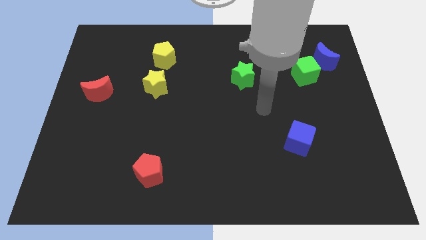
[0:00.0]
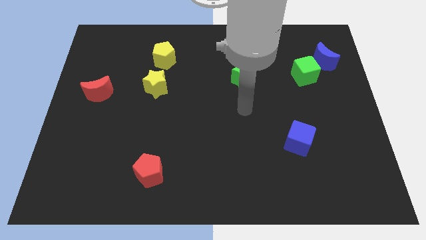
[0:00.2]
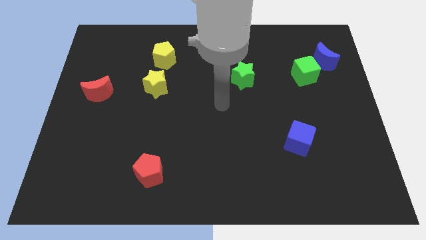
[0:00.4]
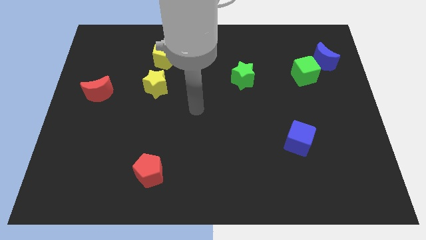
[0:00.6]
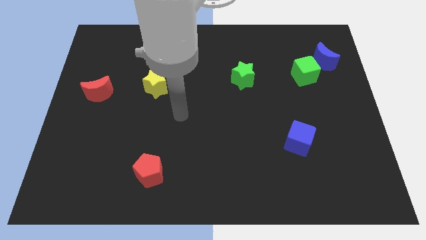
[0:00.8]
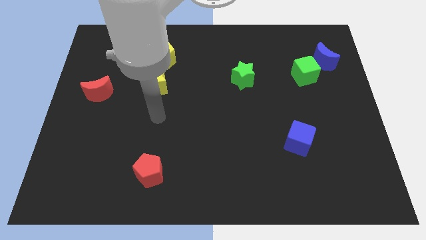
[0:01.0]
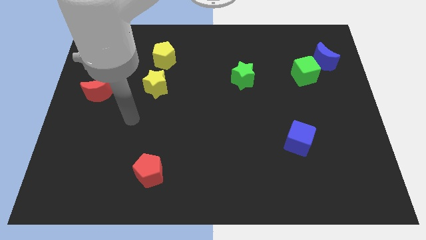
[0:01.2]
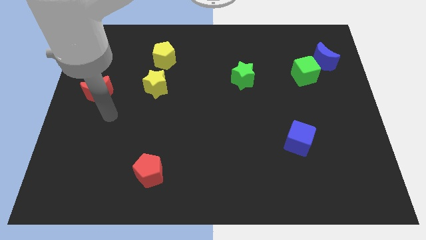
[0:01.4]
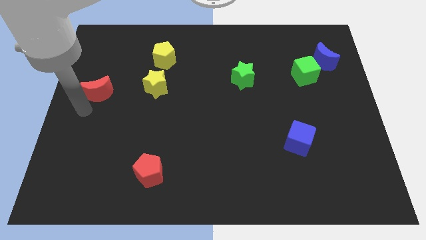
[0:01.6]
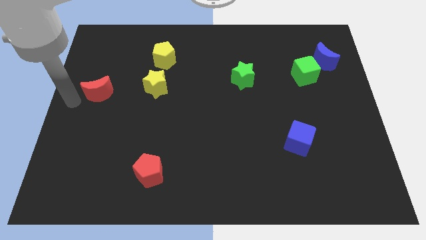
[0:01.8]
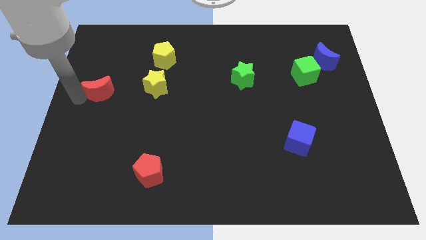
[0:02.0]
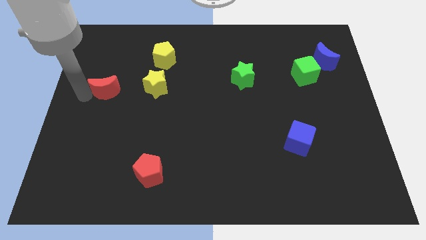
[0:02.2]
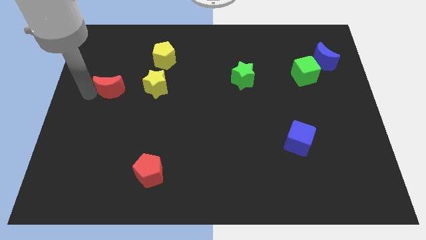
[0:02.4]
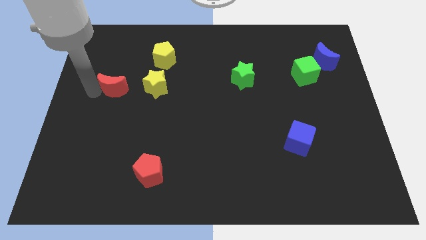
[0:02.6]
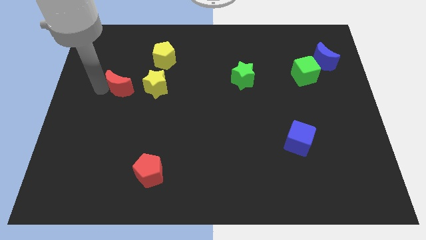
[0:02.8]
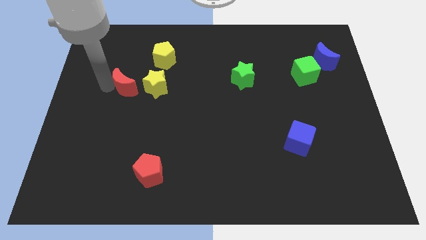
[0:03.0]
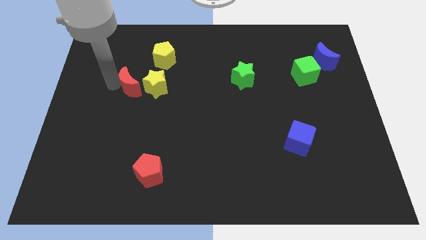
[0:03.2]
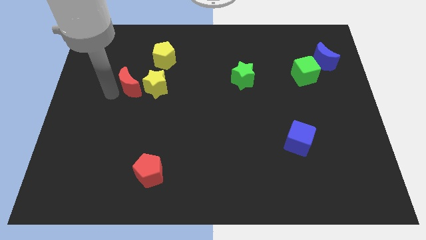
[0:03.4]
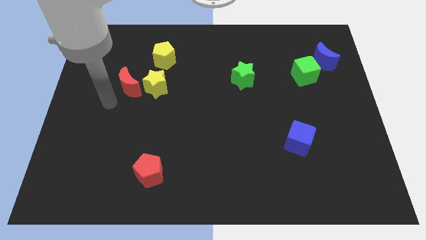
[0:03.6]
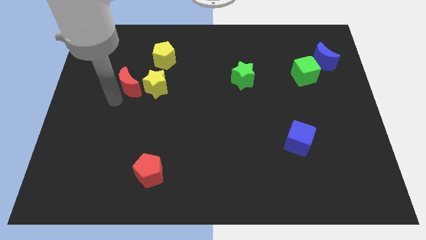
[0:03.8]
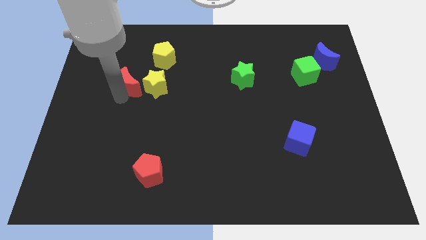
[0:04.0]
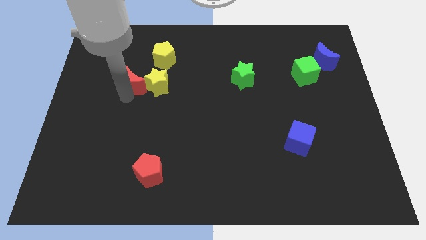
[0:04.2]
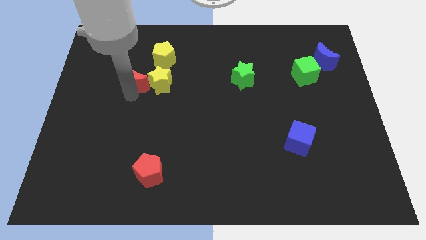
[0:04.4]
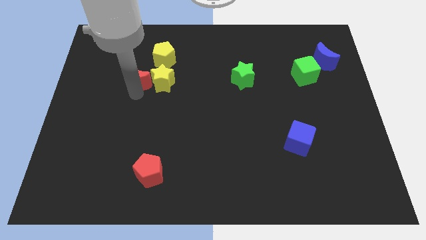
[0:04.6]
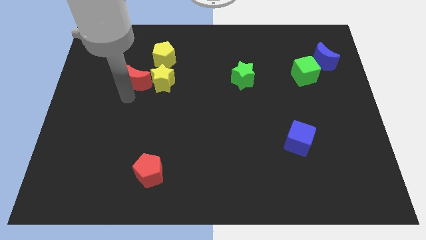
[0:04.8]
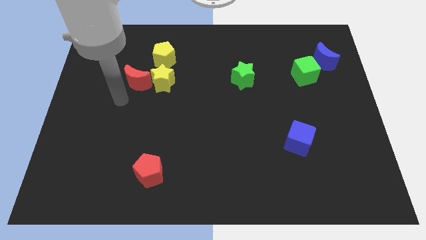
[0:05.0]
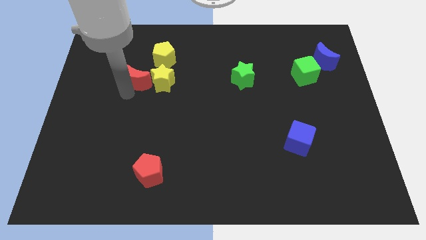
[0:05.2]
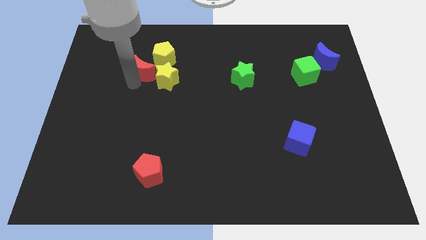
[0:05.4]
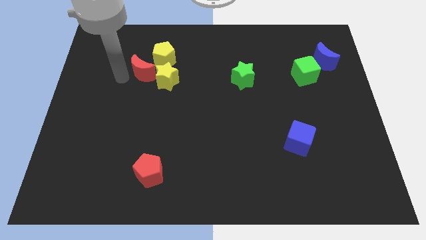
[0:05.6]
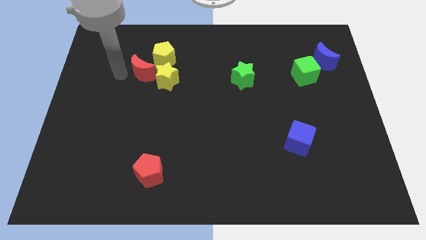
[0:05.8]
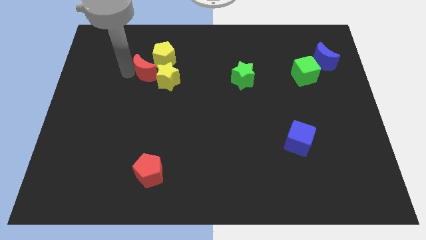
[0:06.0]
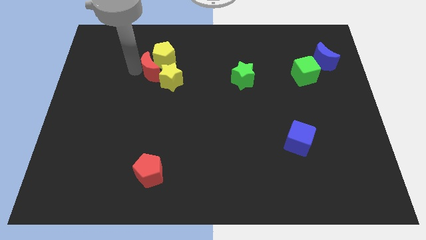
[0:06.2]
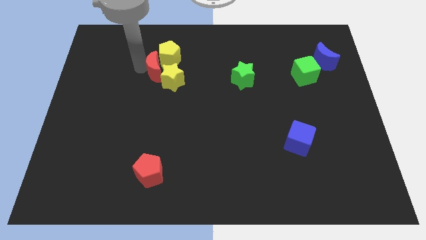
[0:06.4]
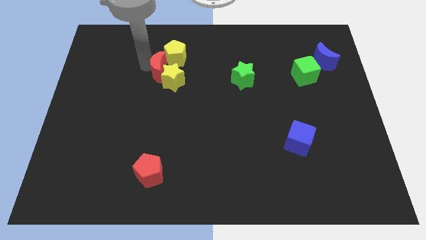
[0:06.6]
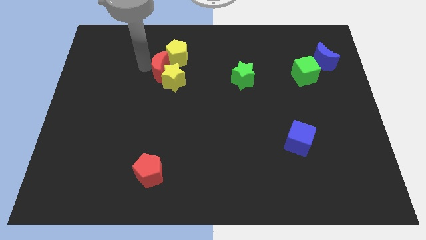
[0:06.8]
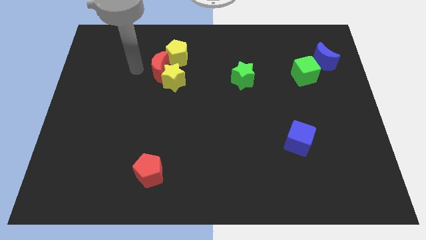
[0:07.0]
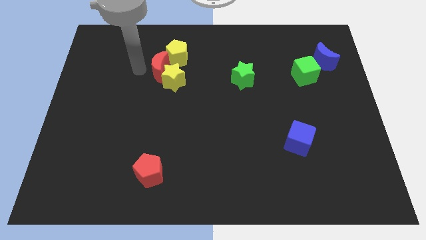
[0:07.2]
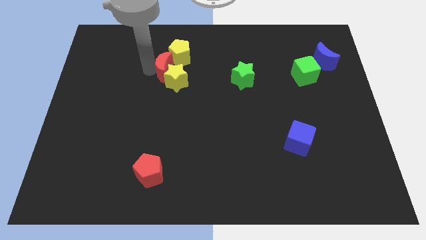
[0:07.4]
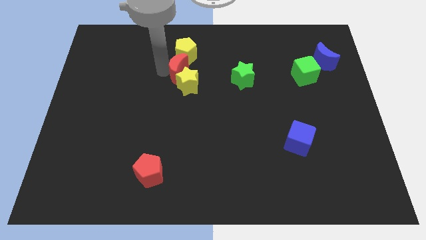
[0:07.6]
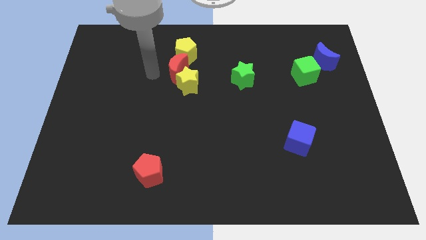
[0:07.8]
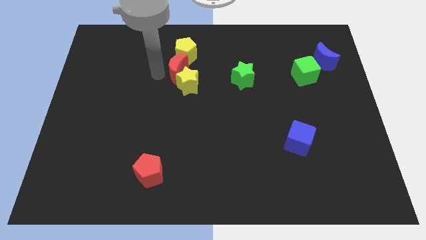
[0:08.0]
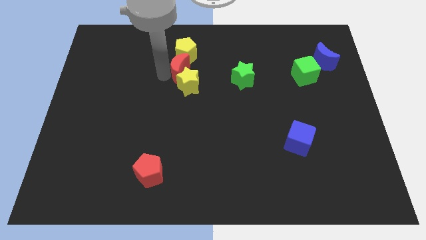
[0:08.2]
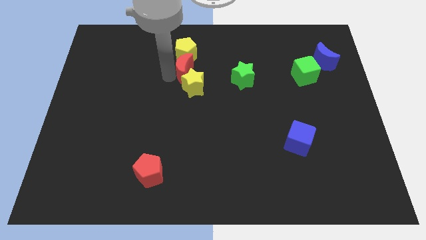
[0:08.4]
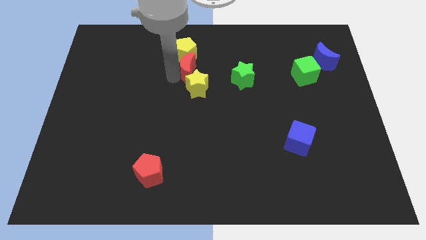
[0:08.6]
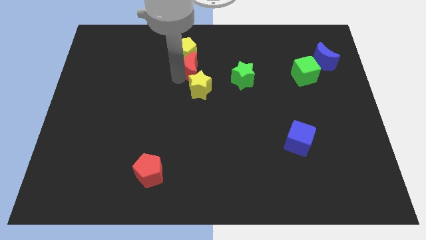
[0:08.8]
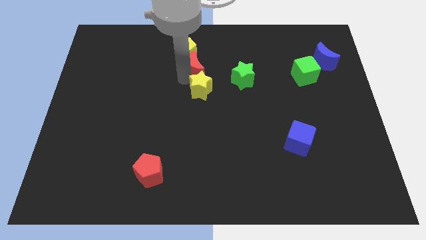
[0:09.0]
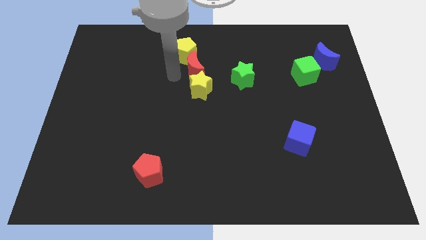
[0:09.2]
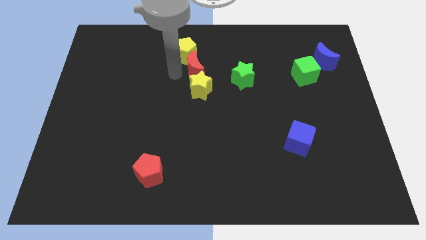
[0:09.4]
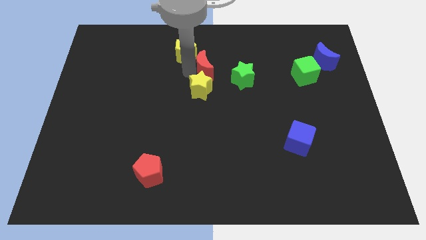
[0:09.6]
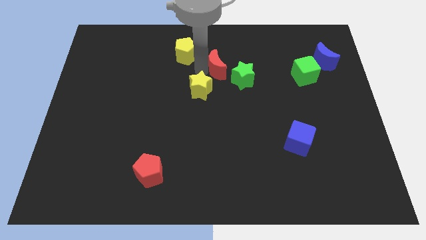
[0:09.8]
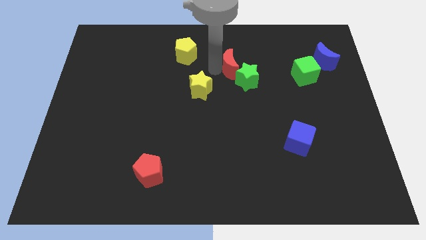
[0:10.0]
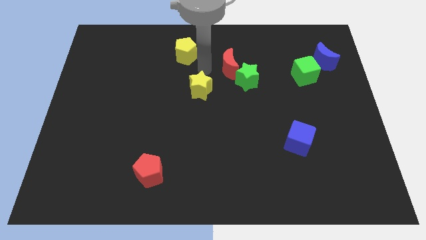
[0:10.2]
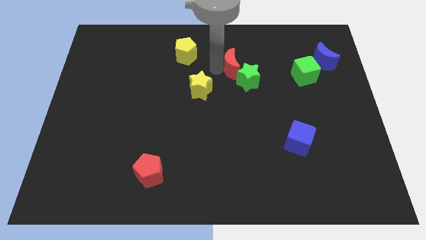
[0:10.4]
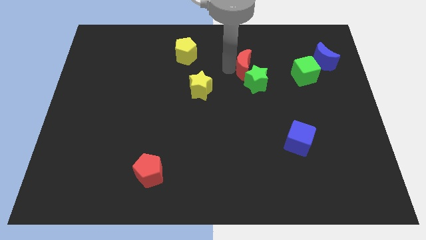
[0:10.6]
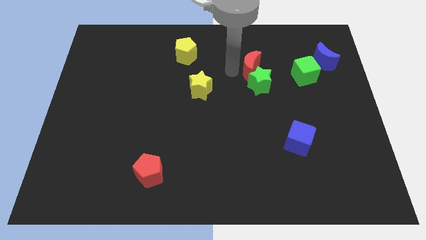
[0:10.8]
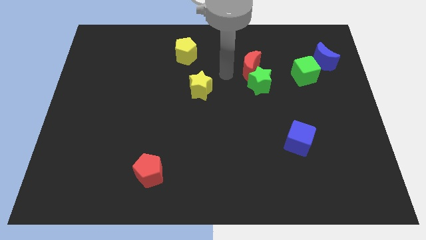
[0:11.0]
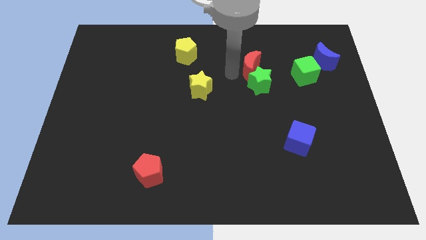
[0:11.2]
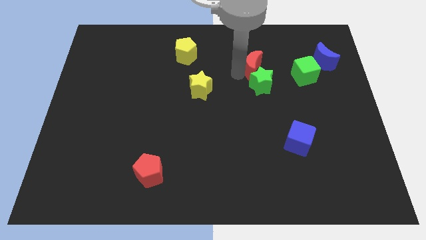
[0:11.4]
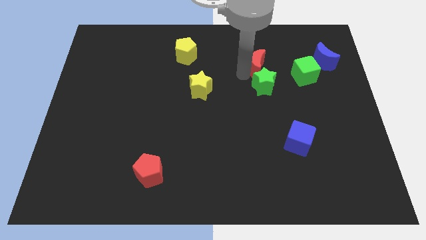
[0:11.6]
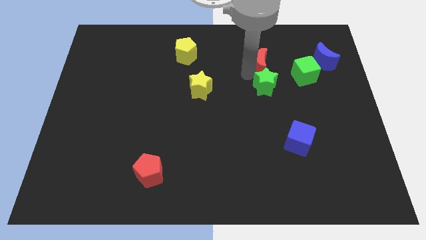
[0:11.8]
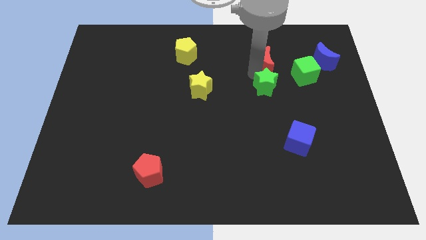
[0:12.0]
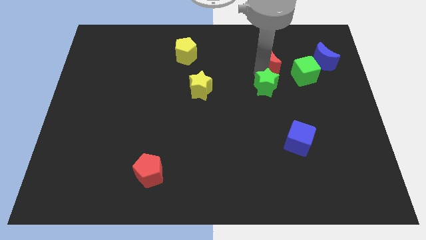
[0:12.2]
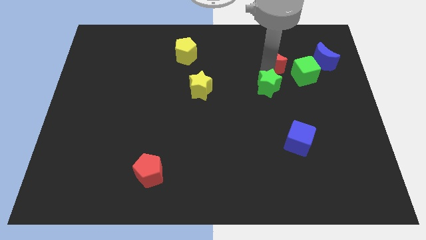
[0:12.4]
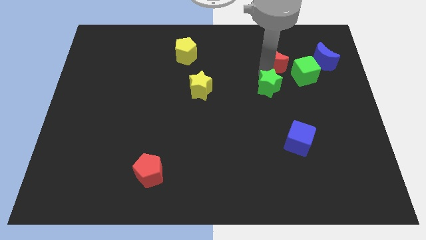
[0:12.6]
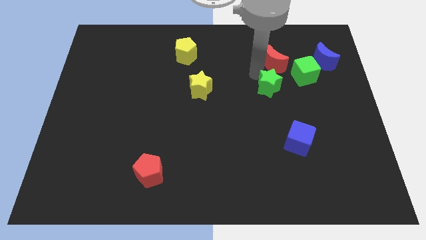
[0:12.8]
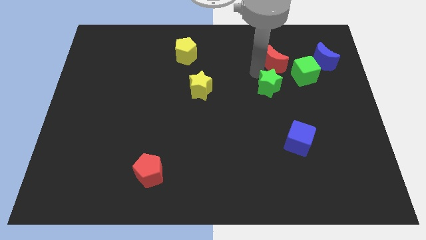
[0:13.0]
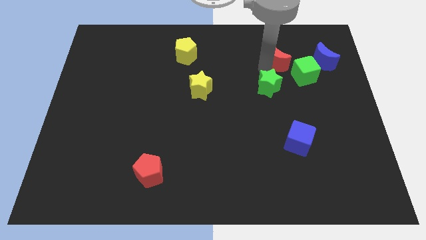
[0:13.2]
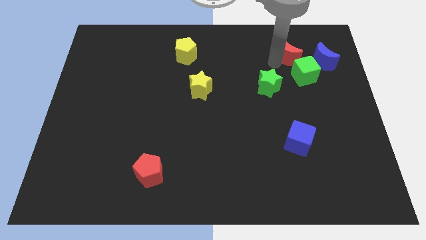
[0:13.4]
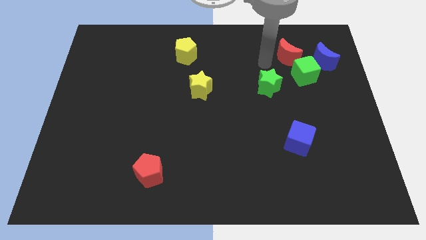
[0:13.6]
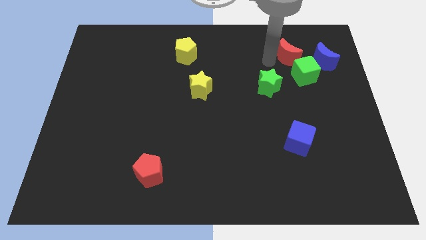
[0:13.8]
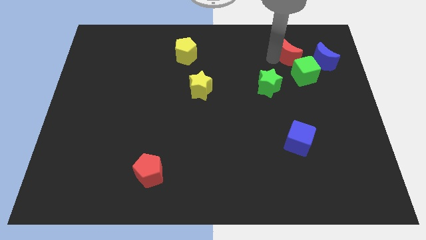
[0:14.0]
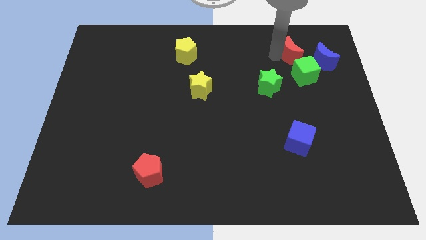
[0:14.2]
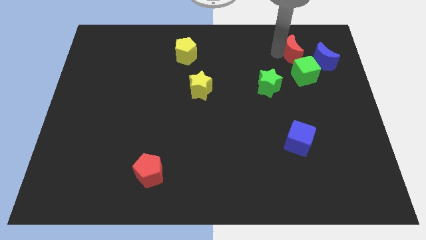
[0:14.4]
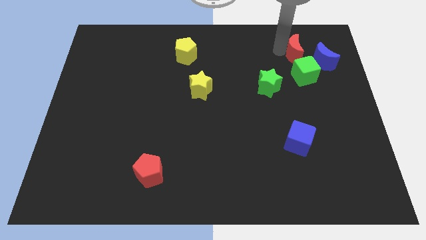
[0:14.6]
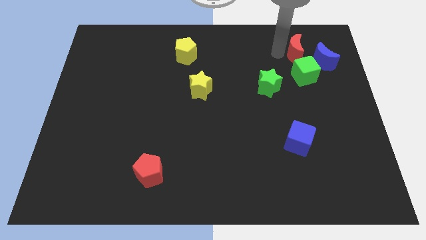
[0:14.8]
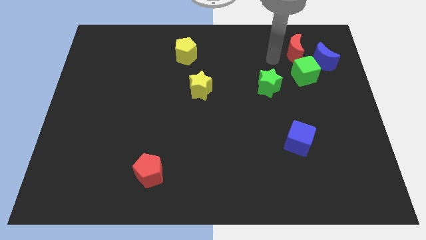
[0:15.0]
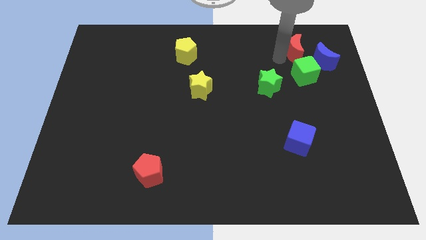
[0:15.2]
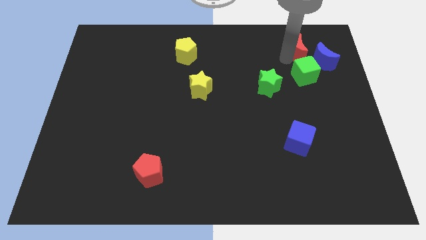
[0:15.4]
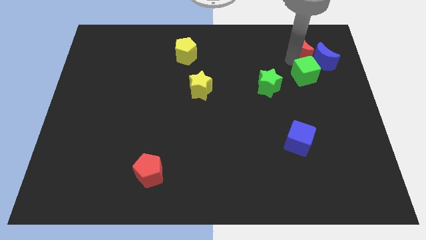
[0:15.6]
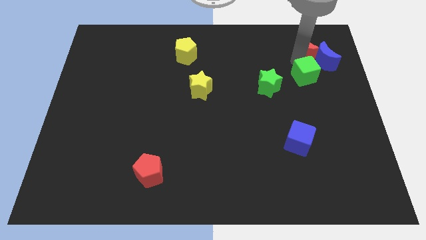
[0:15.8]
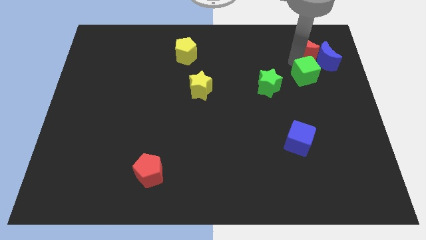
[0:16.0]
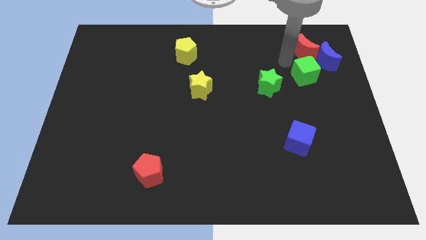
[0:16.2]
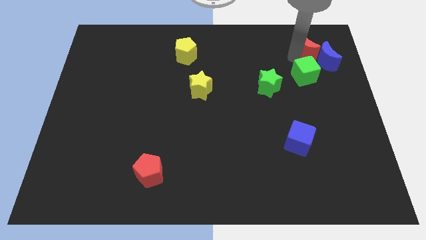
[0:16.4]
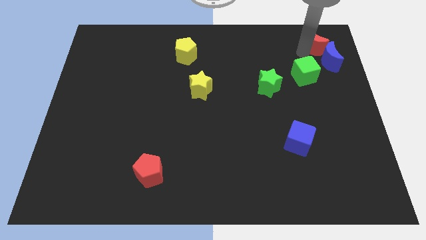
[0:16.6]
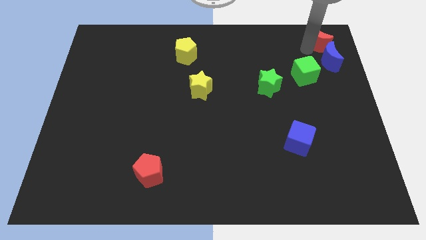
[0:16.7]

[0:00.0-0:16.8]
move the red moon to the top right corner
